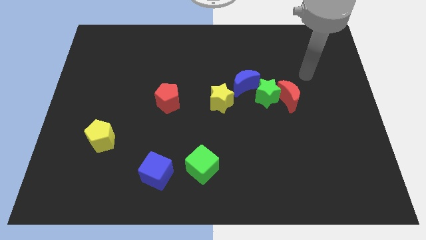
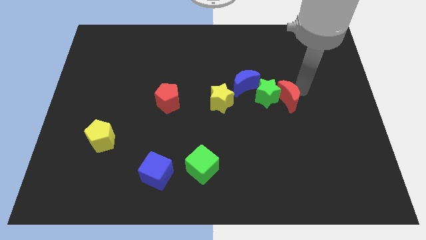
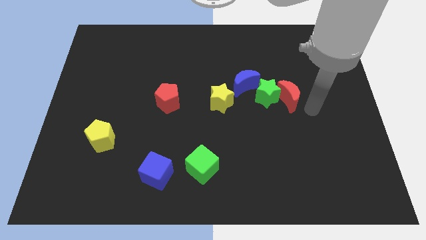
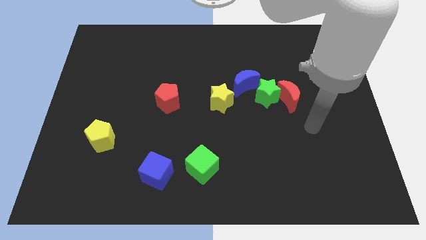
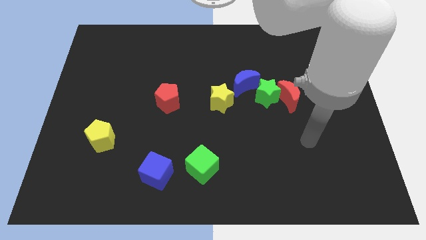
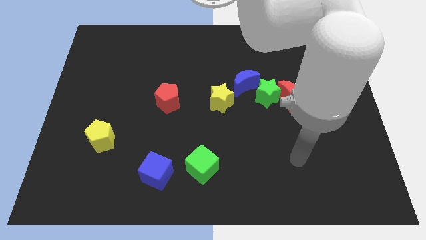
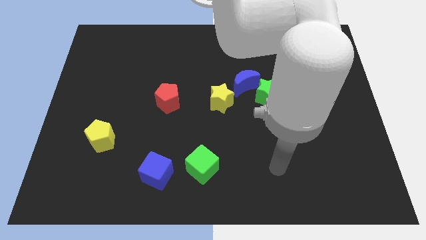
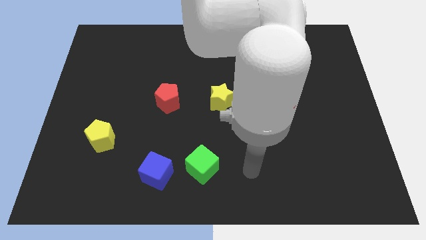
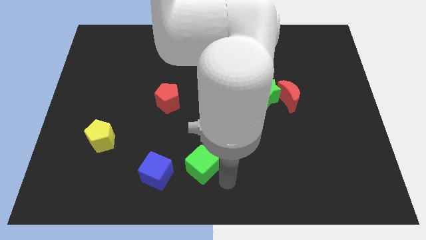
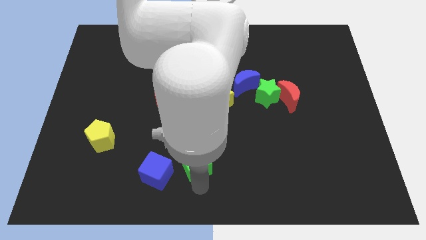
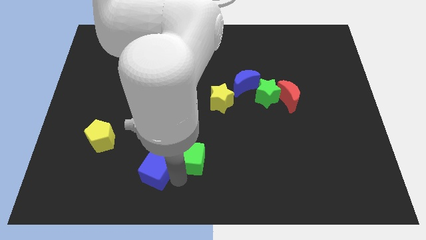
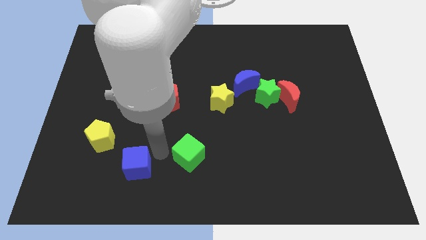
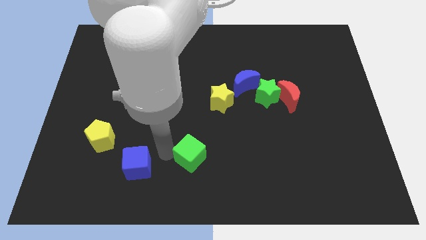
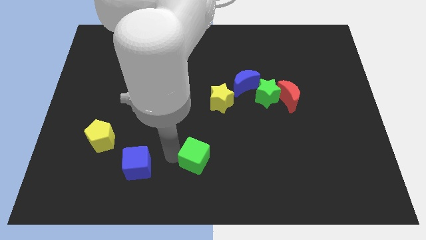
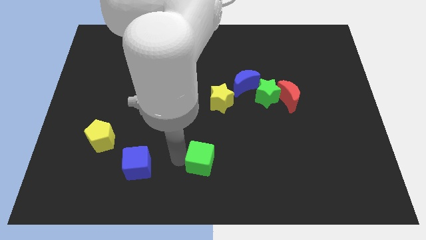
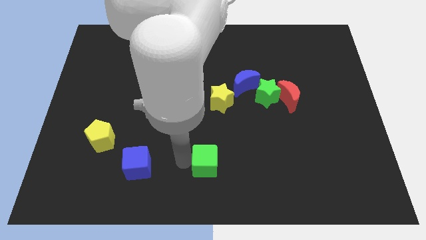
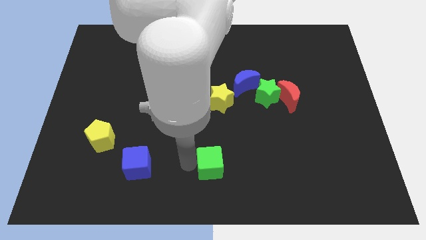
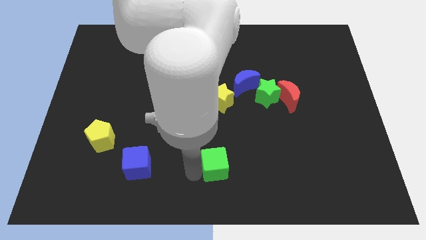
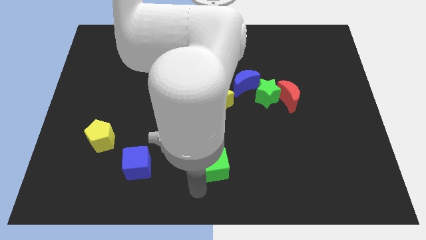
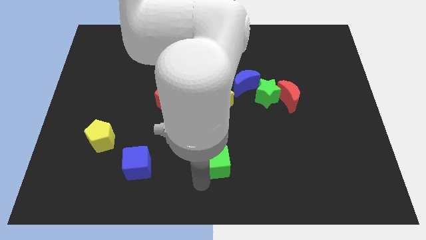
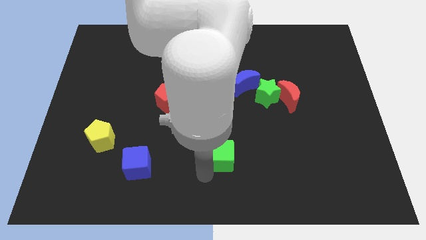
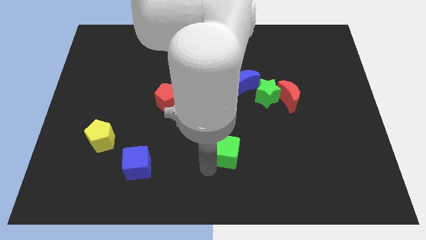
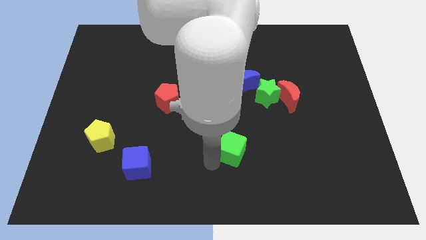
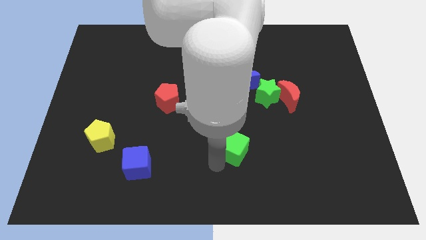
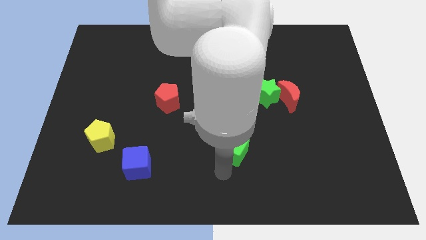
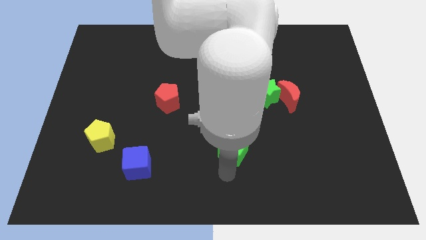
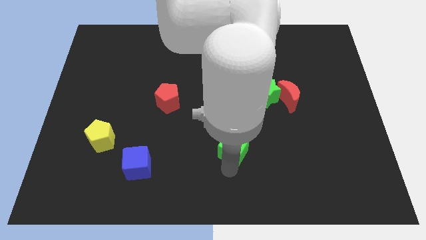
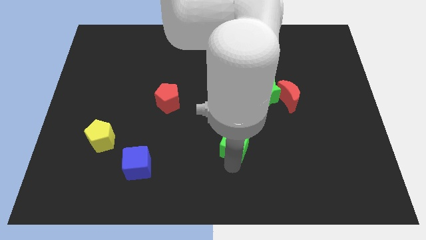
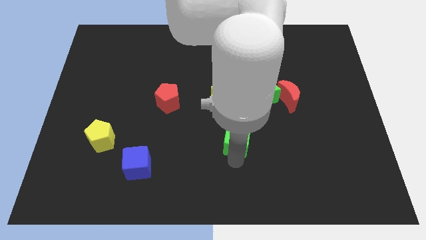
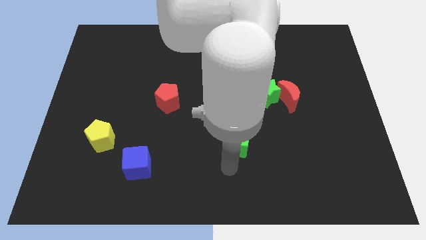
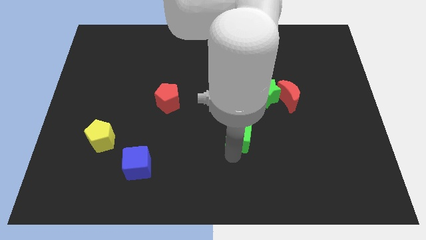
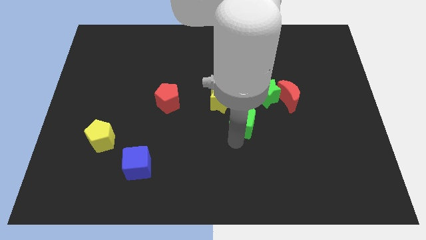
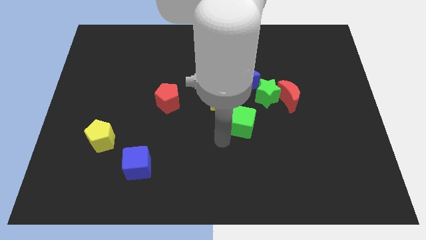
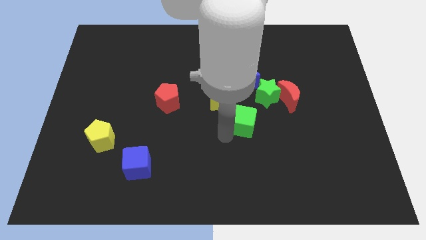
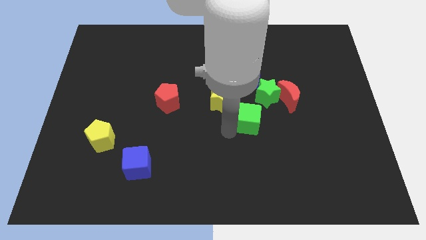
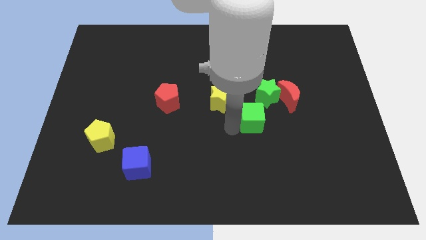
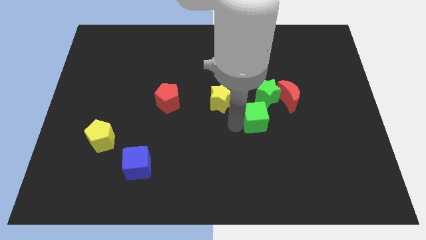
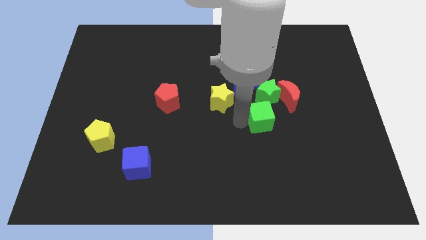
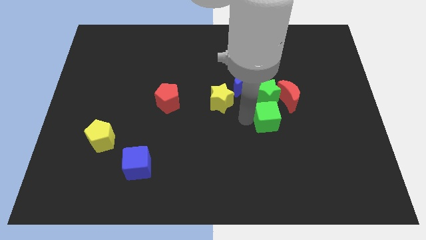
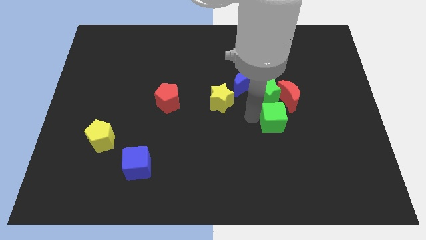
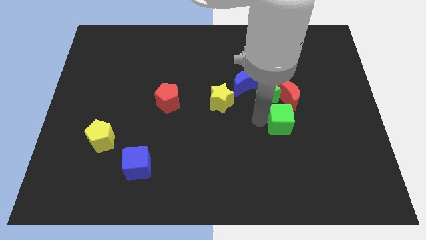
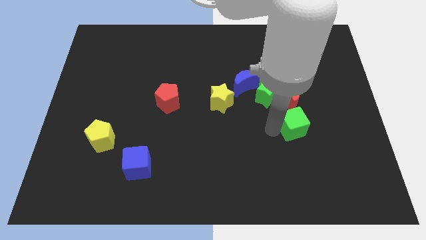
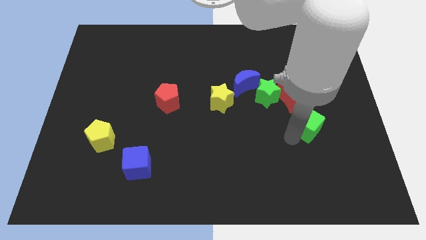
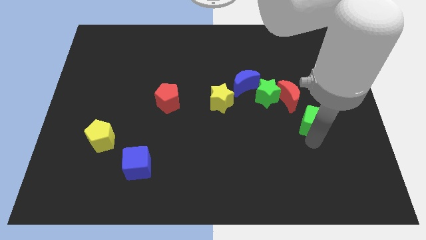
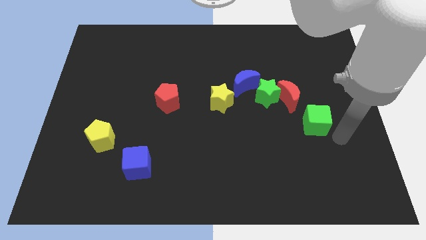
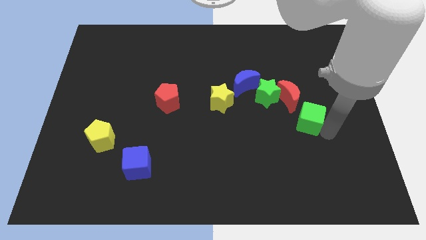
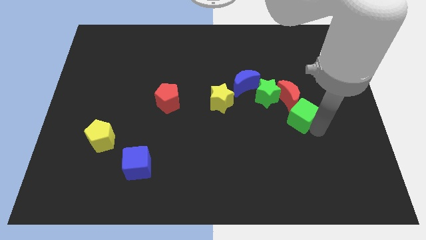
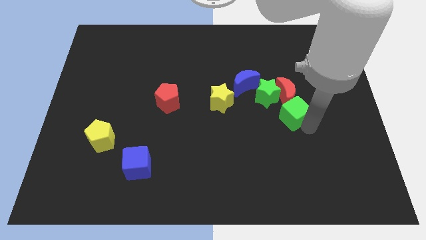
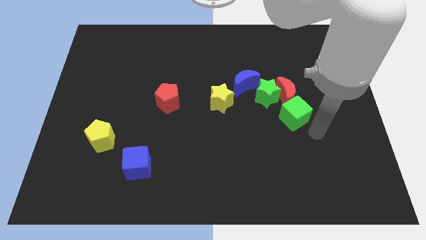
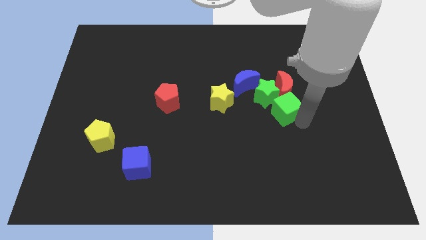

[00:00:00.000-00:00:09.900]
put the green cube to the green star

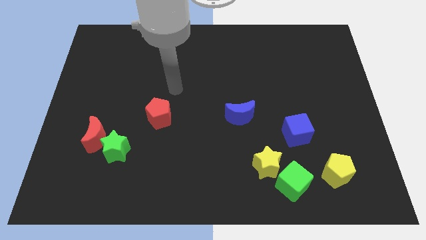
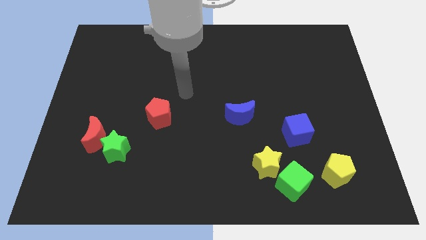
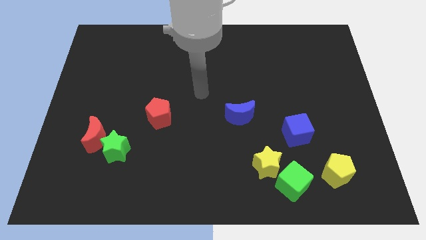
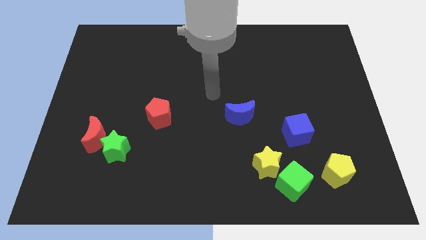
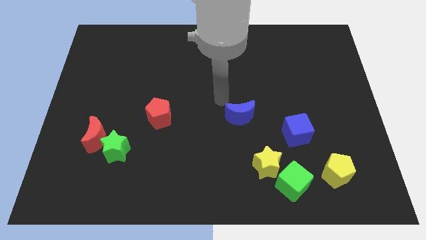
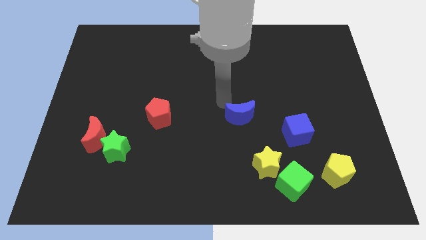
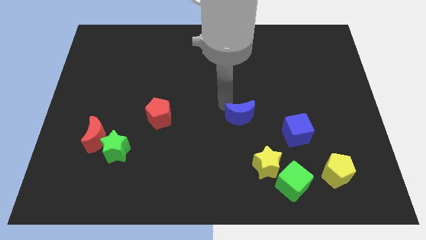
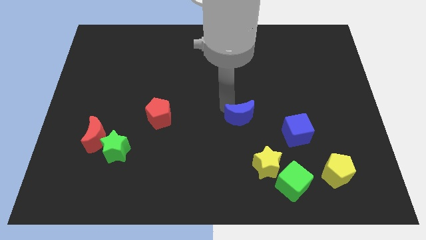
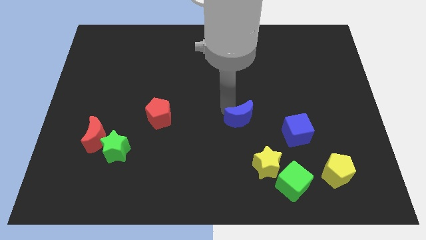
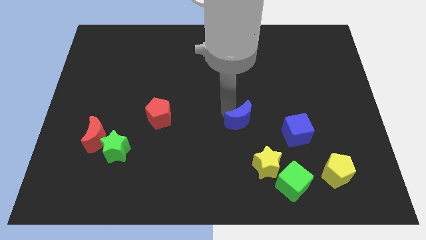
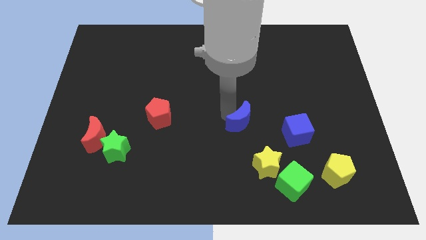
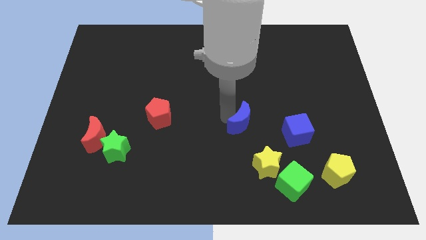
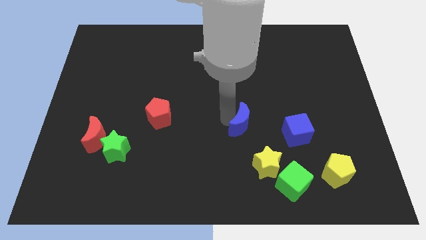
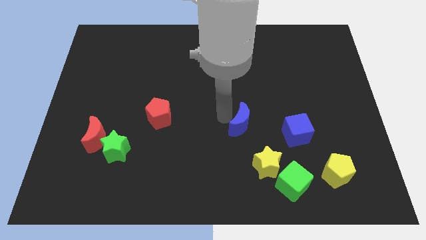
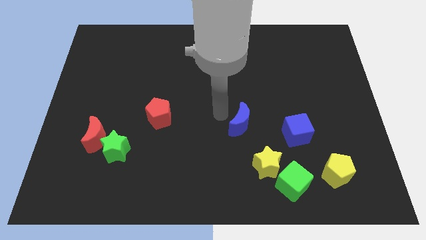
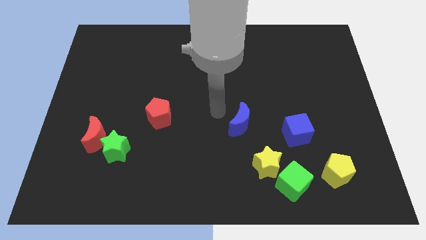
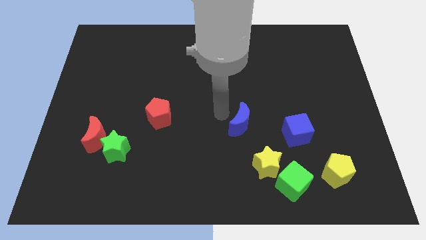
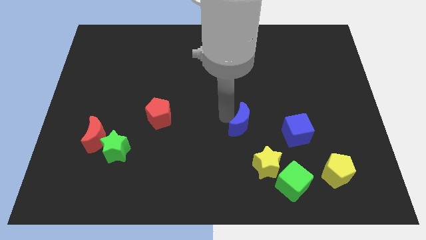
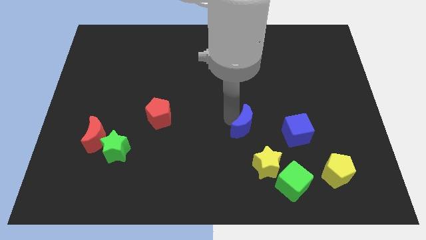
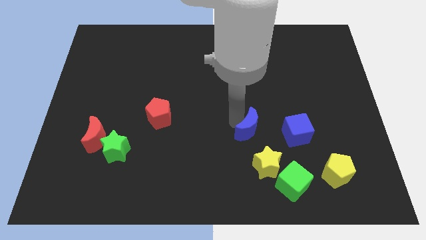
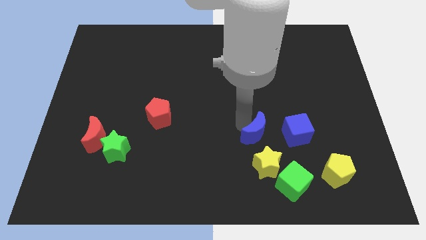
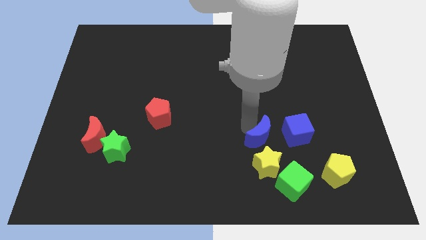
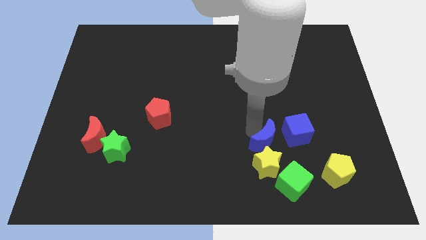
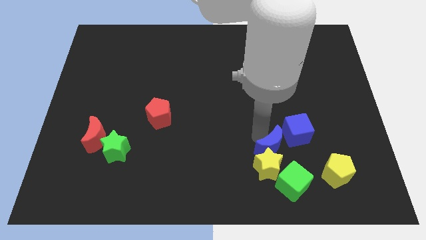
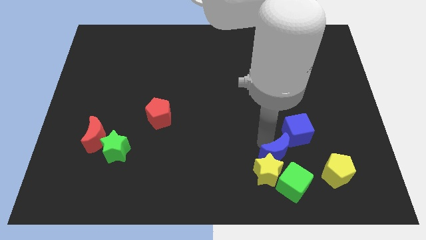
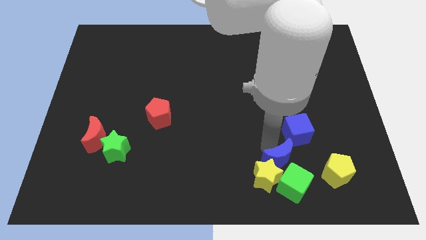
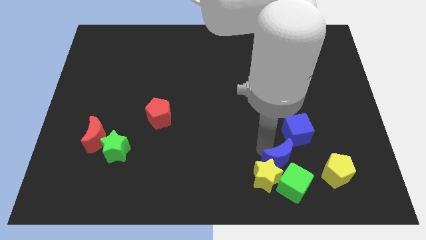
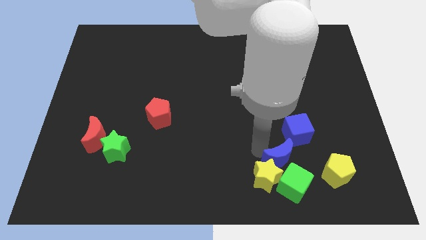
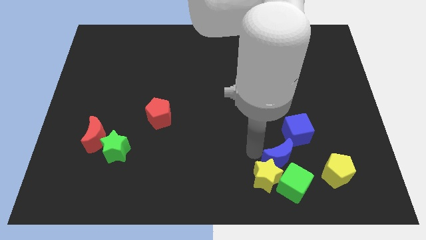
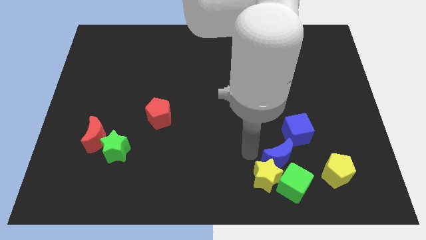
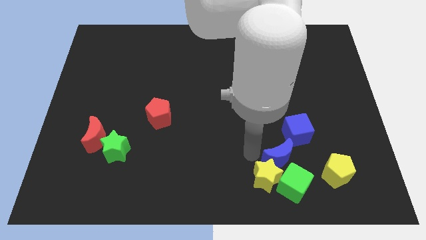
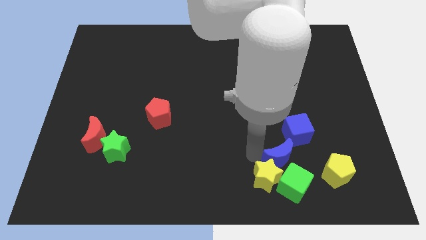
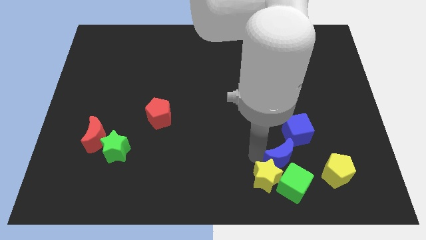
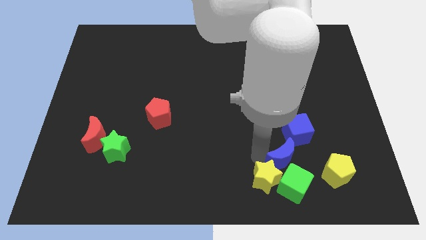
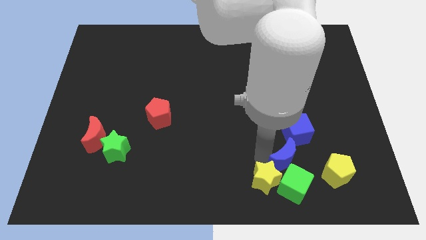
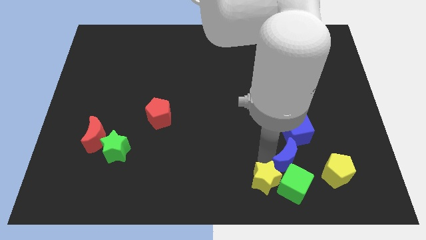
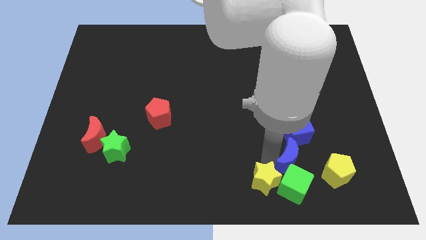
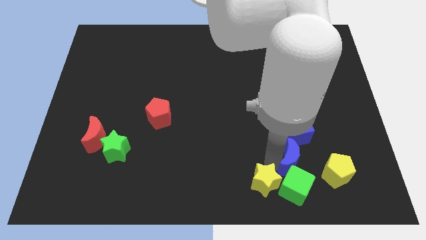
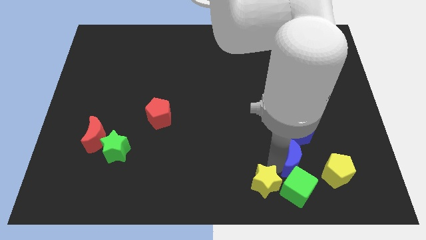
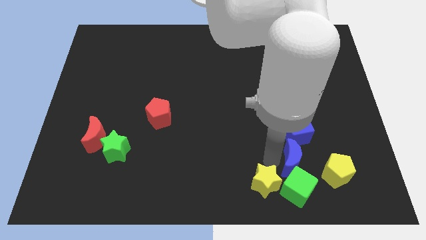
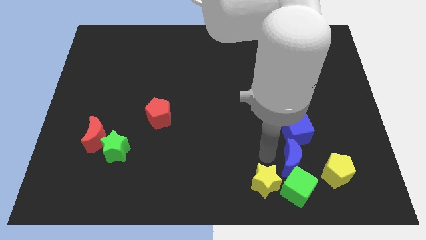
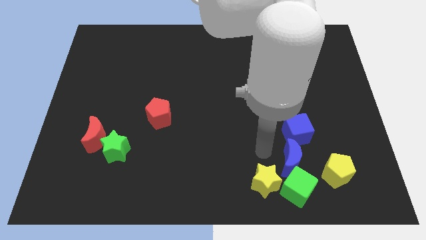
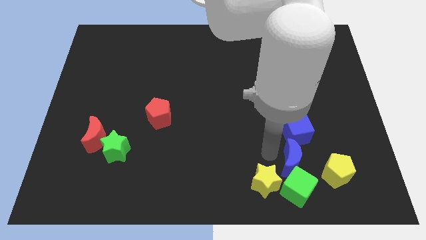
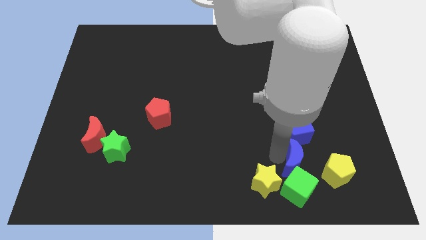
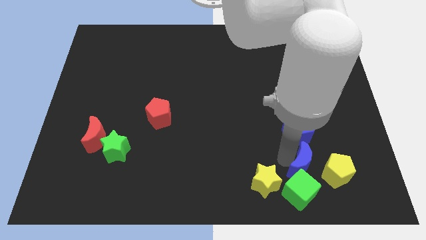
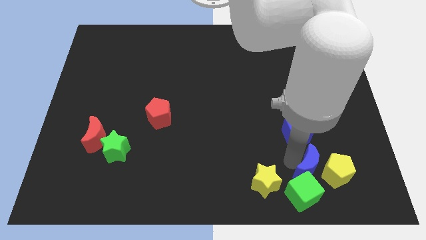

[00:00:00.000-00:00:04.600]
move the blue moon next to the yellow pentagon
